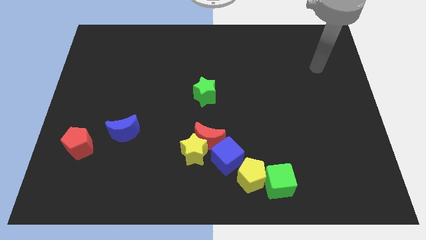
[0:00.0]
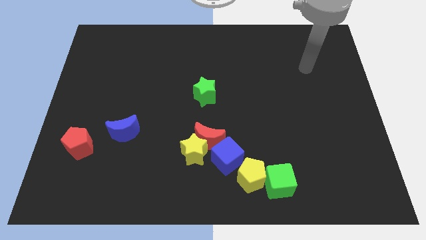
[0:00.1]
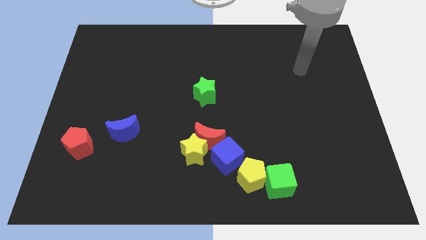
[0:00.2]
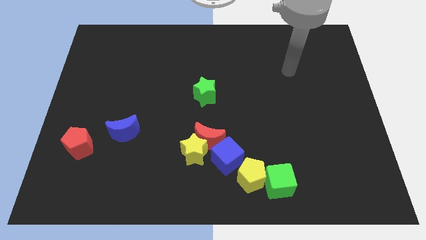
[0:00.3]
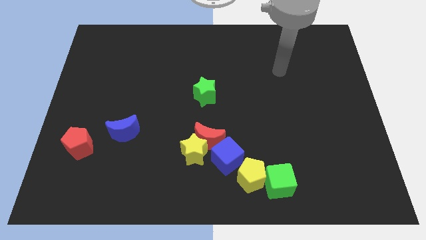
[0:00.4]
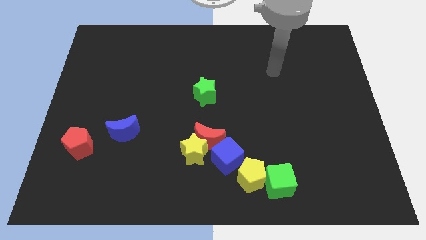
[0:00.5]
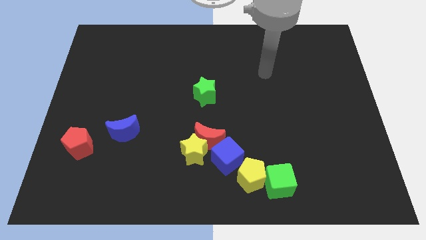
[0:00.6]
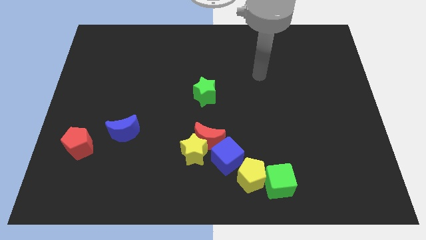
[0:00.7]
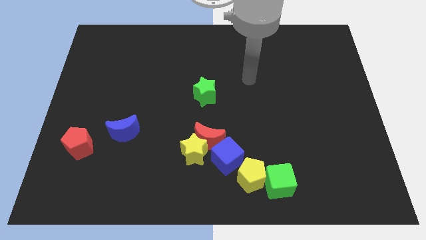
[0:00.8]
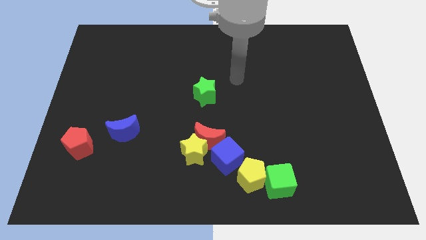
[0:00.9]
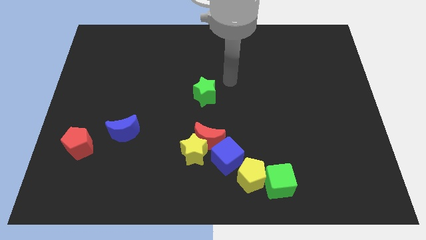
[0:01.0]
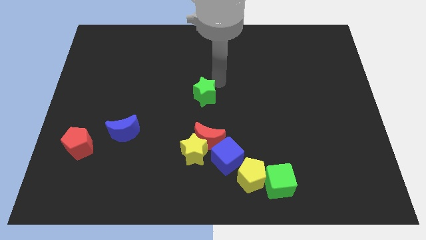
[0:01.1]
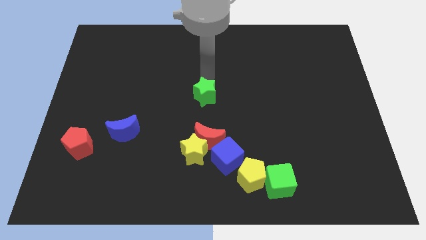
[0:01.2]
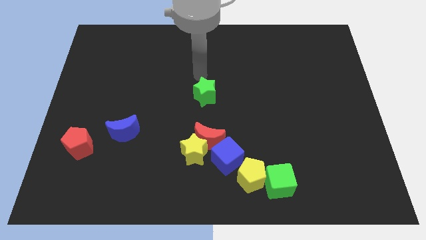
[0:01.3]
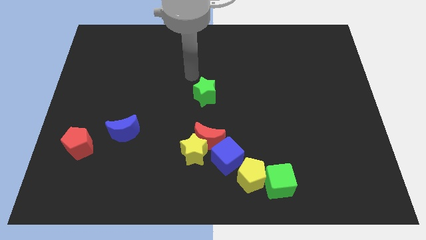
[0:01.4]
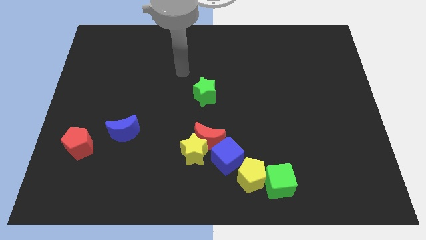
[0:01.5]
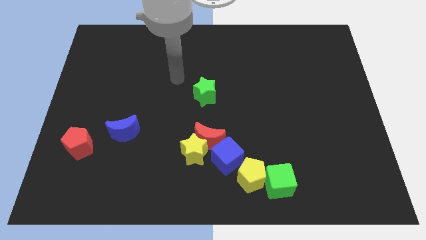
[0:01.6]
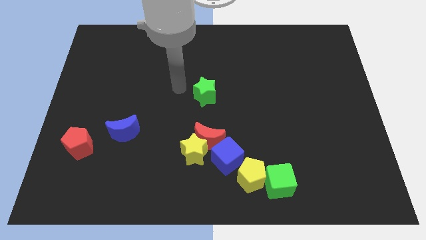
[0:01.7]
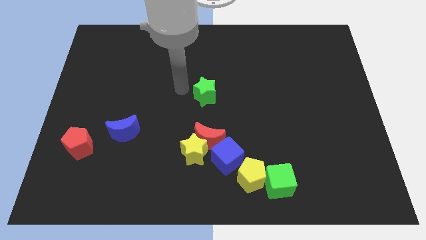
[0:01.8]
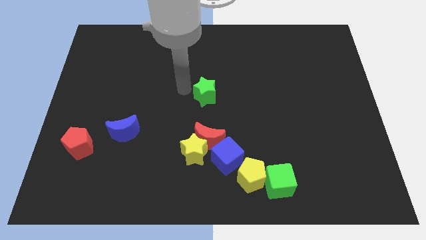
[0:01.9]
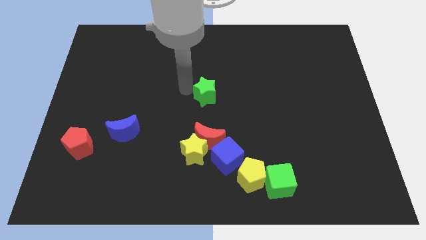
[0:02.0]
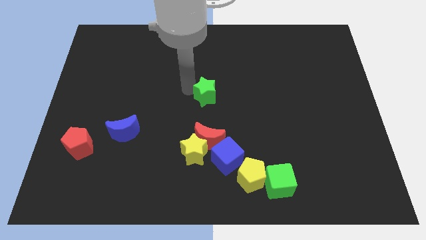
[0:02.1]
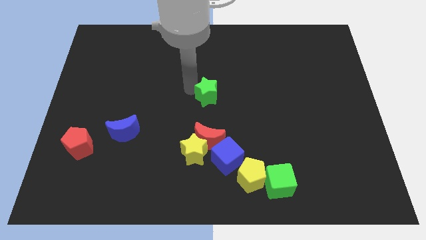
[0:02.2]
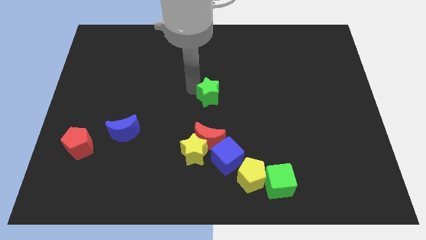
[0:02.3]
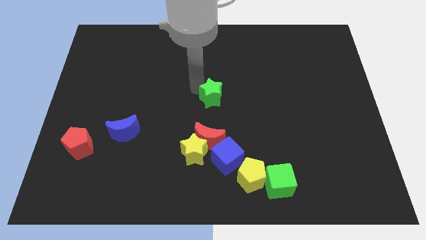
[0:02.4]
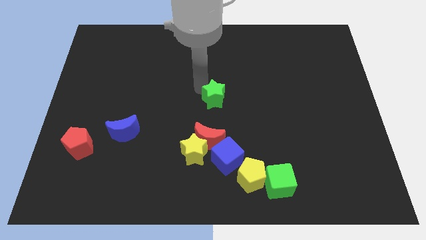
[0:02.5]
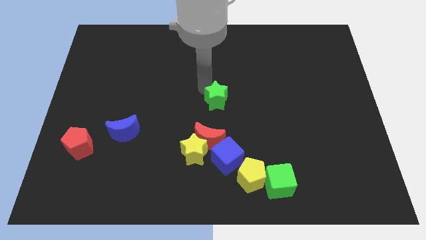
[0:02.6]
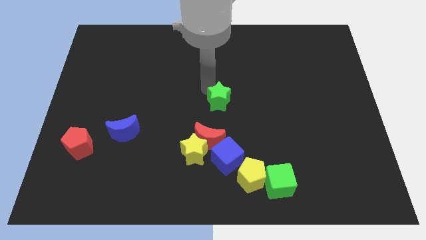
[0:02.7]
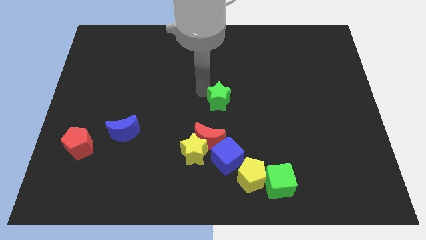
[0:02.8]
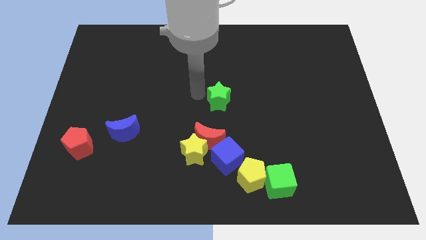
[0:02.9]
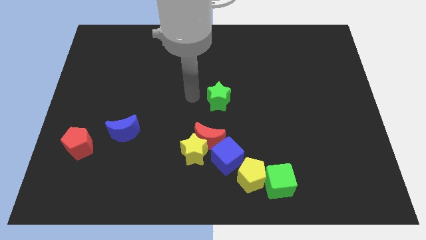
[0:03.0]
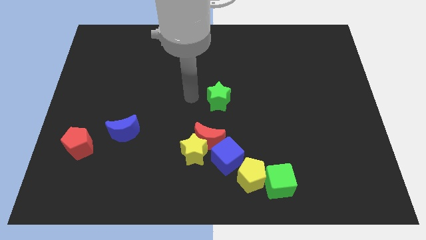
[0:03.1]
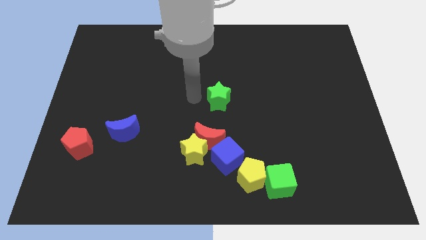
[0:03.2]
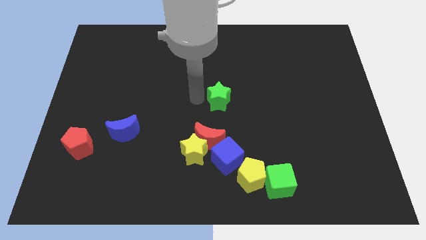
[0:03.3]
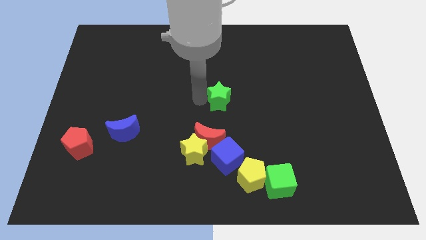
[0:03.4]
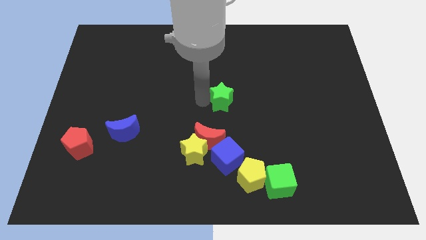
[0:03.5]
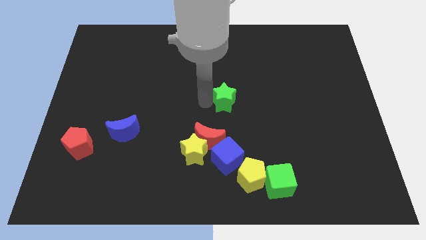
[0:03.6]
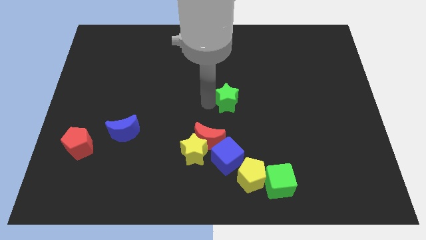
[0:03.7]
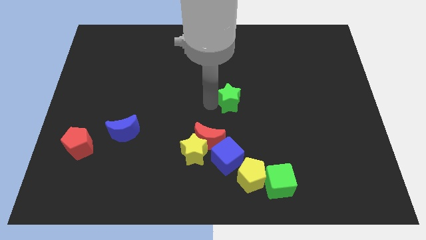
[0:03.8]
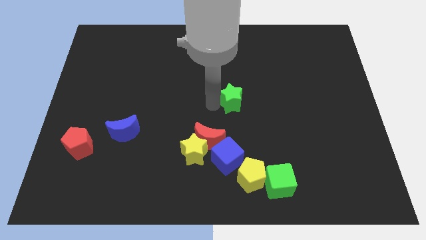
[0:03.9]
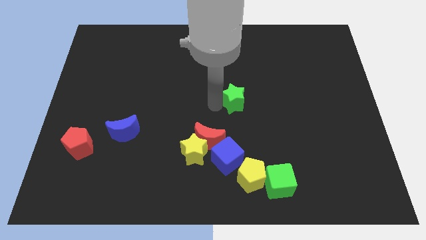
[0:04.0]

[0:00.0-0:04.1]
slide the green star to the right a little bit

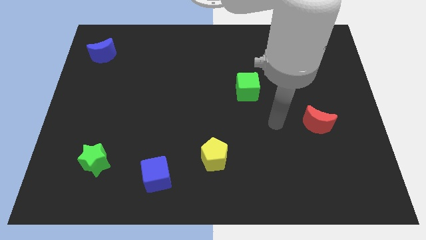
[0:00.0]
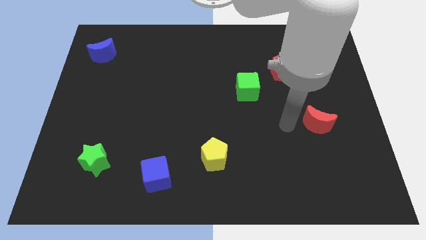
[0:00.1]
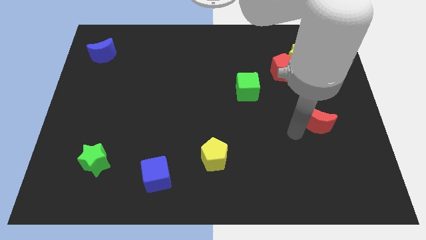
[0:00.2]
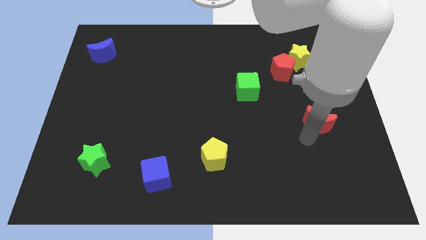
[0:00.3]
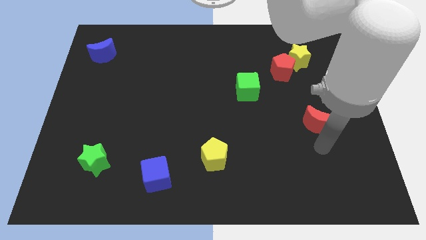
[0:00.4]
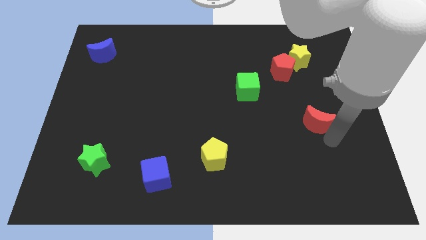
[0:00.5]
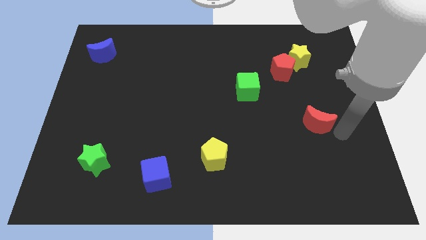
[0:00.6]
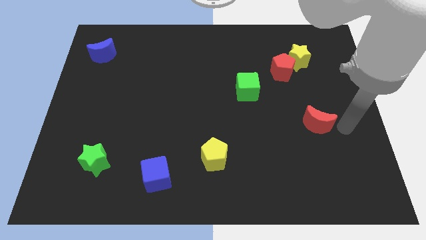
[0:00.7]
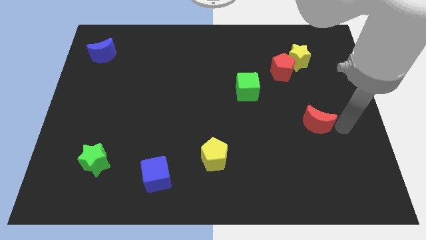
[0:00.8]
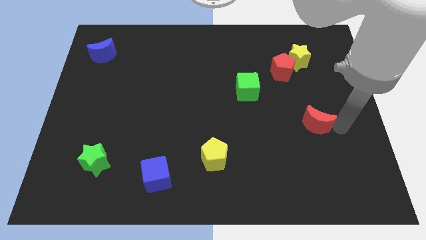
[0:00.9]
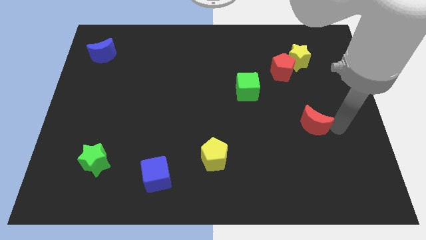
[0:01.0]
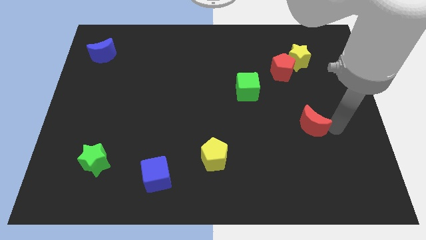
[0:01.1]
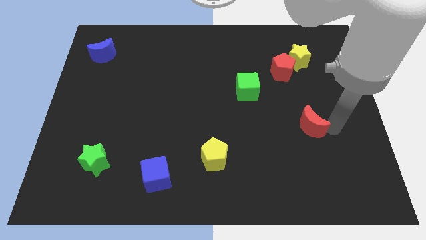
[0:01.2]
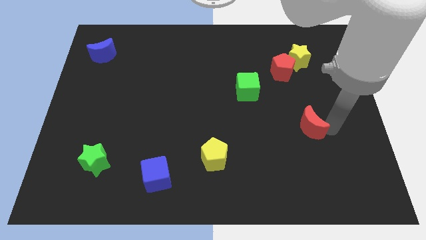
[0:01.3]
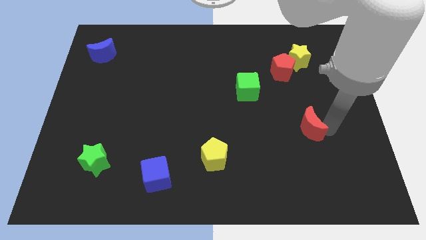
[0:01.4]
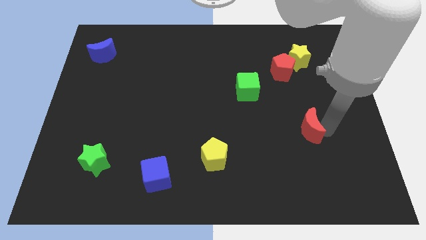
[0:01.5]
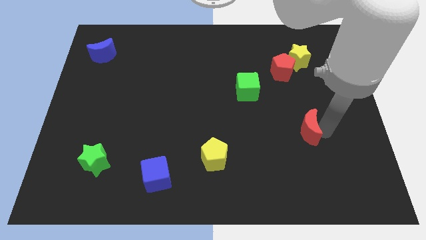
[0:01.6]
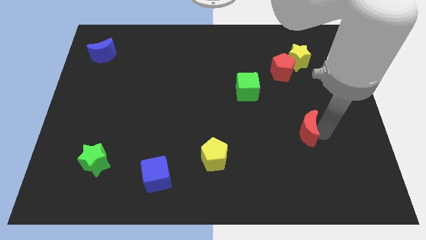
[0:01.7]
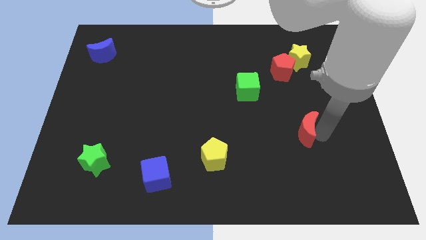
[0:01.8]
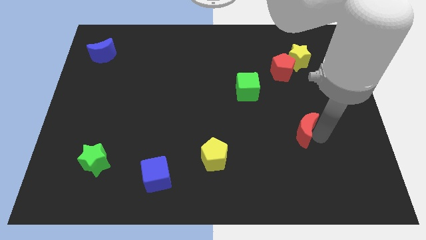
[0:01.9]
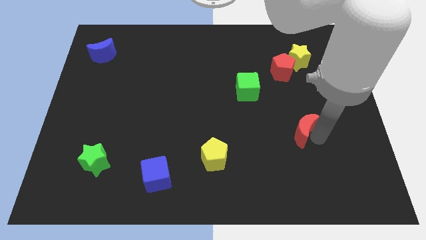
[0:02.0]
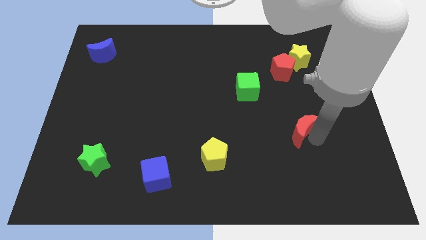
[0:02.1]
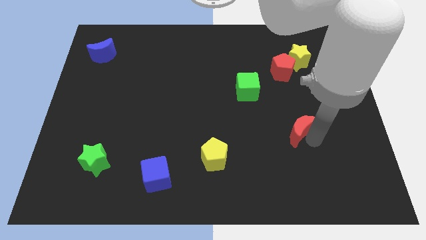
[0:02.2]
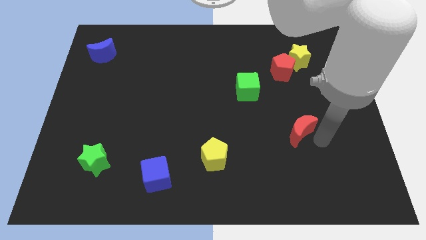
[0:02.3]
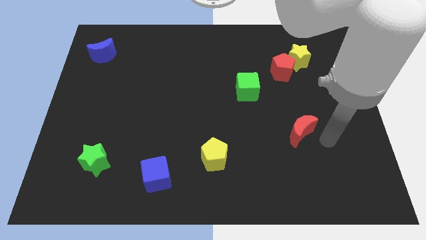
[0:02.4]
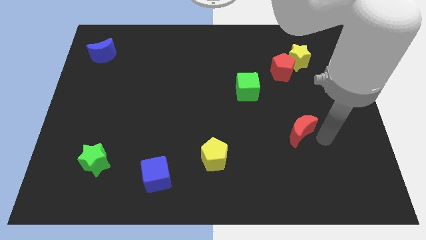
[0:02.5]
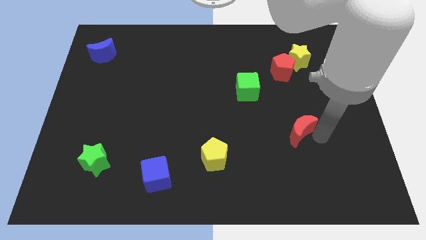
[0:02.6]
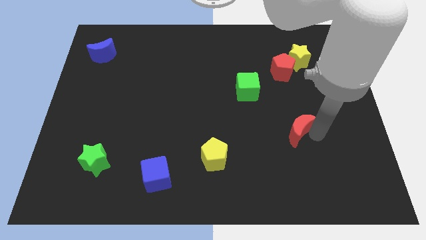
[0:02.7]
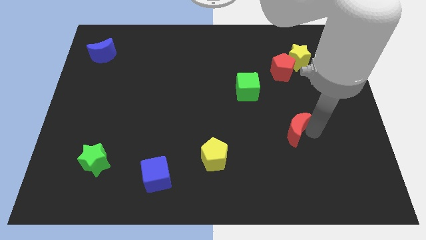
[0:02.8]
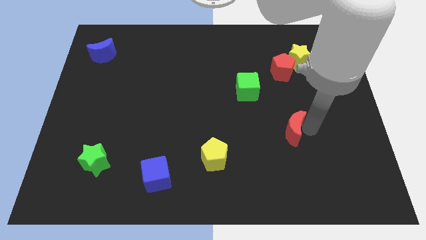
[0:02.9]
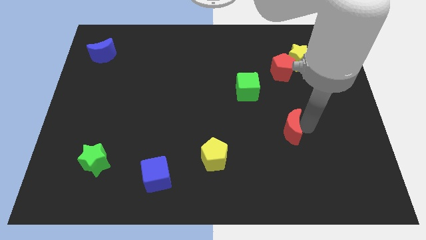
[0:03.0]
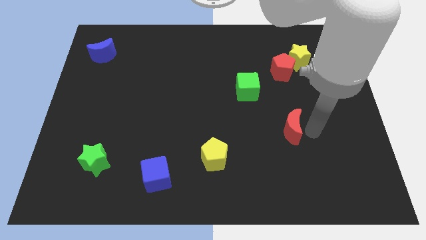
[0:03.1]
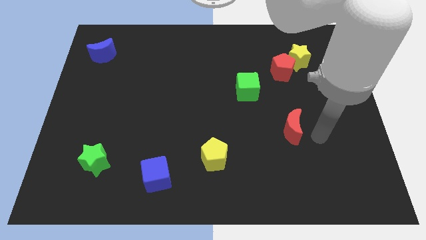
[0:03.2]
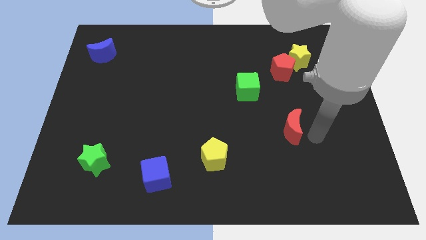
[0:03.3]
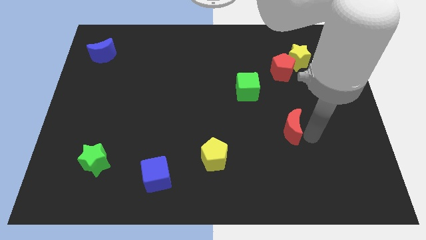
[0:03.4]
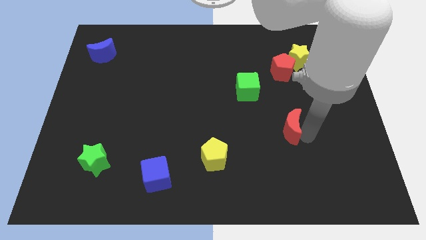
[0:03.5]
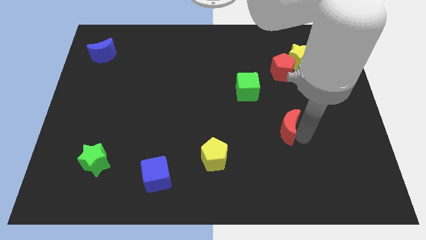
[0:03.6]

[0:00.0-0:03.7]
push the red moon slightly left

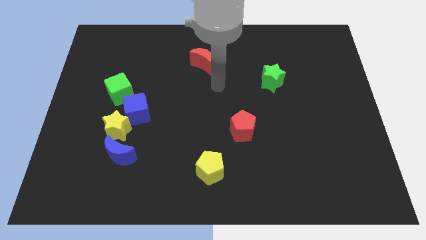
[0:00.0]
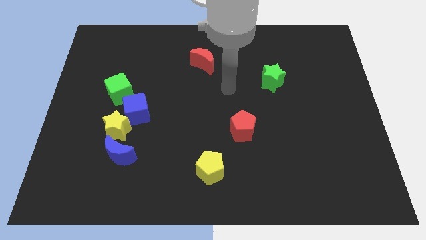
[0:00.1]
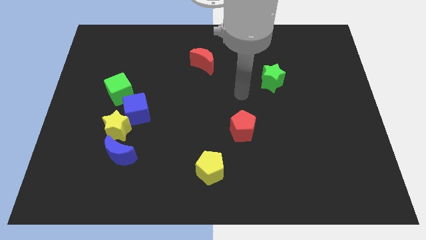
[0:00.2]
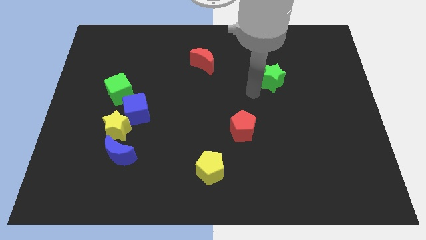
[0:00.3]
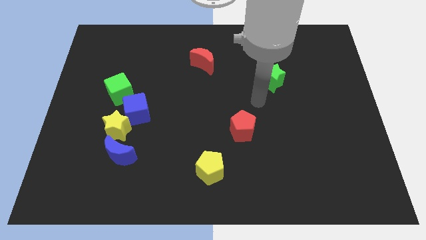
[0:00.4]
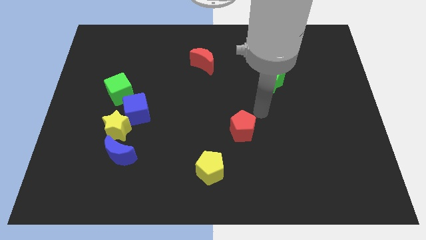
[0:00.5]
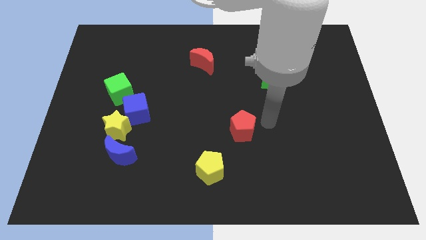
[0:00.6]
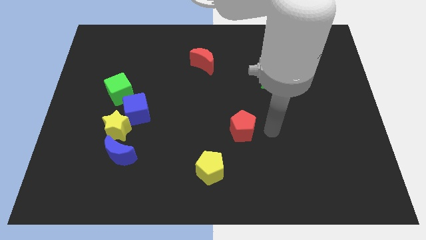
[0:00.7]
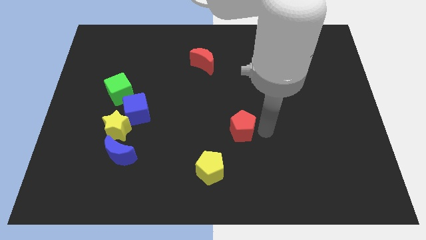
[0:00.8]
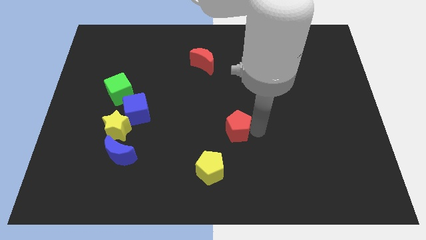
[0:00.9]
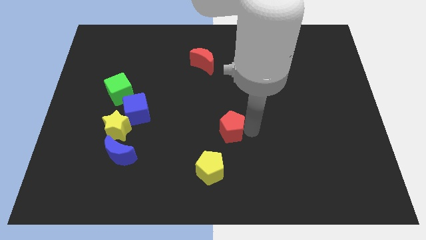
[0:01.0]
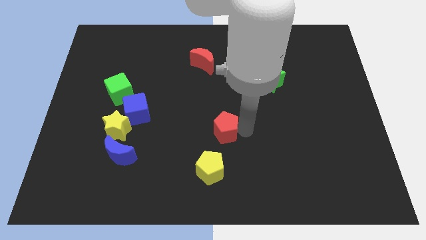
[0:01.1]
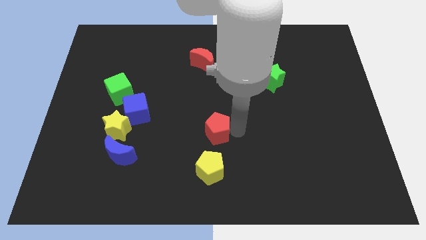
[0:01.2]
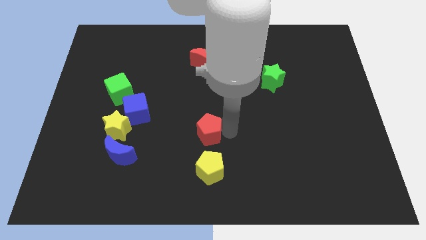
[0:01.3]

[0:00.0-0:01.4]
push the red pentagon to the left a little
